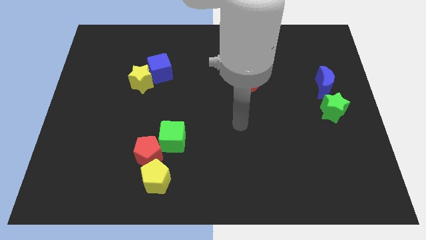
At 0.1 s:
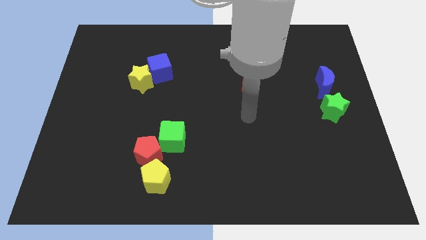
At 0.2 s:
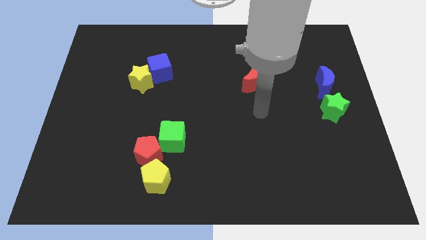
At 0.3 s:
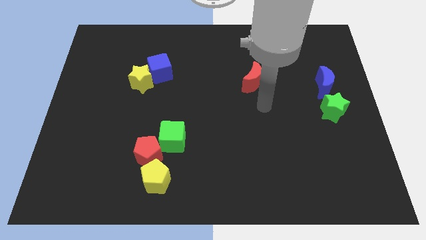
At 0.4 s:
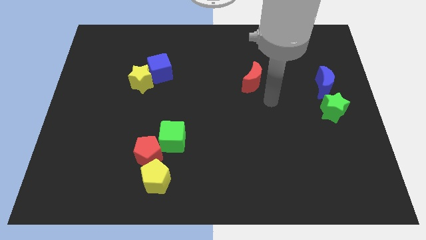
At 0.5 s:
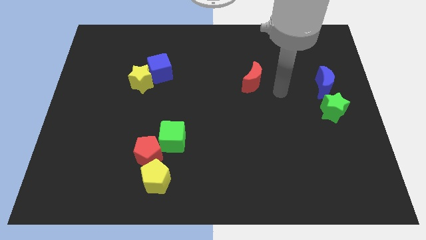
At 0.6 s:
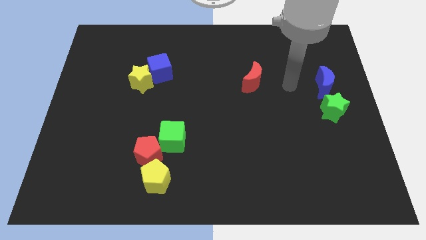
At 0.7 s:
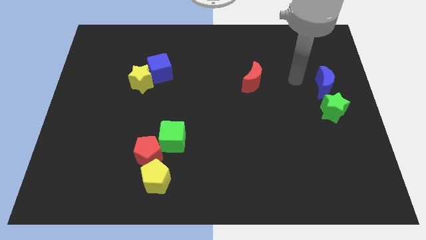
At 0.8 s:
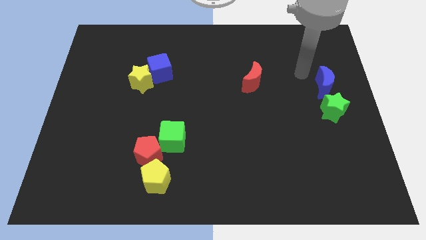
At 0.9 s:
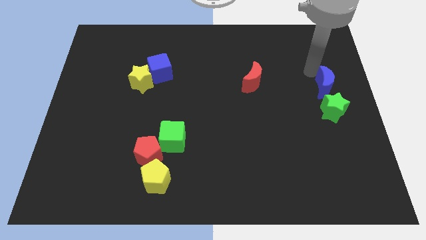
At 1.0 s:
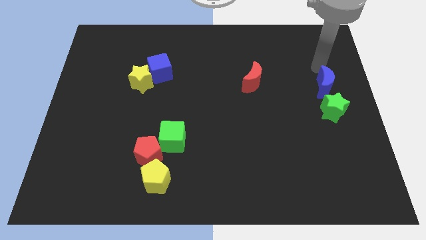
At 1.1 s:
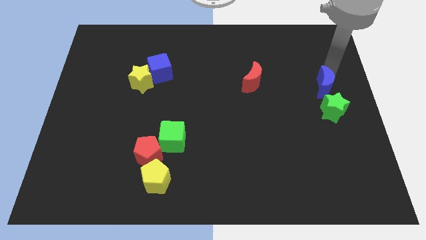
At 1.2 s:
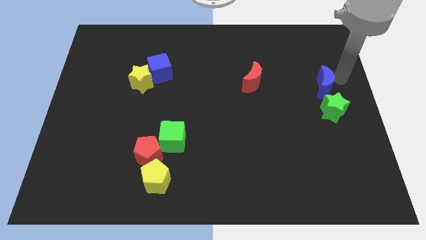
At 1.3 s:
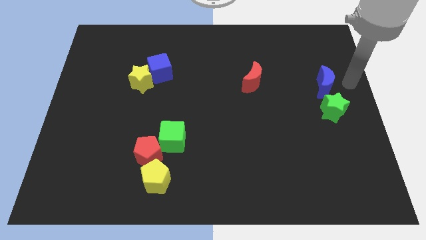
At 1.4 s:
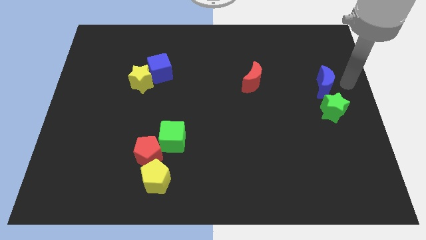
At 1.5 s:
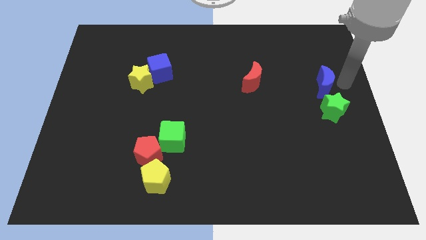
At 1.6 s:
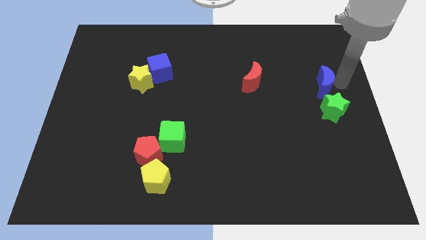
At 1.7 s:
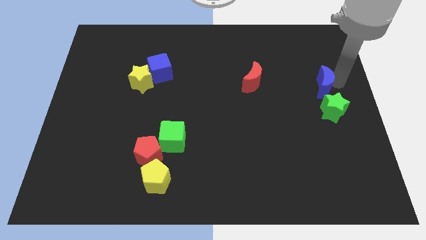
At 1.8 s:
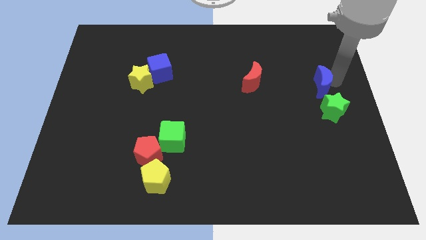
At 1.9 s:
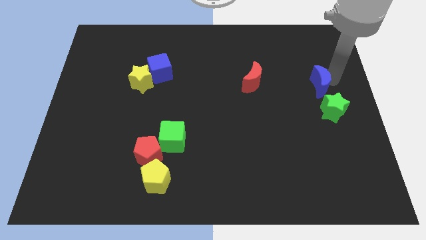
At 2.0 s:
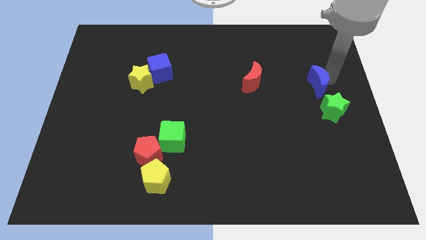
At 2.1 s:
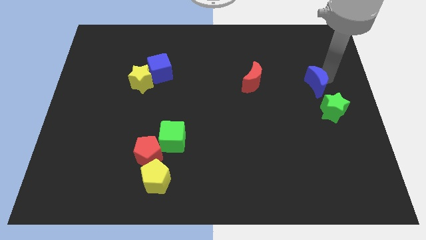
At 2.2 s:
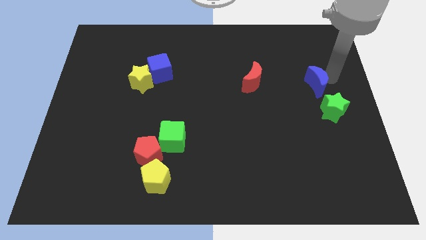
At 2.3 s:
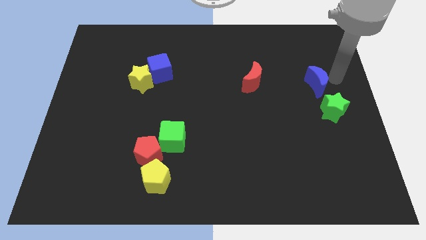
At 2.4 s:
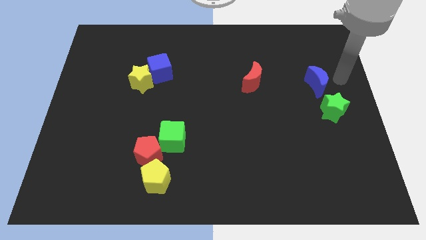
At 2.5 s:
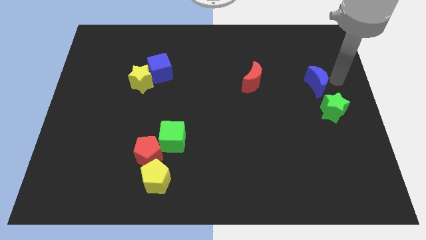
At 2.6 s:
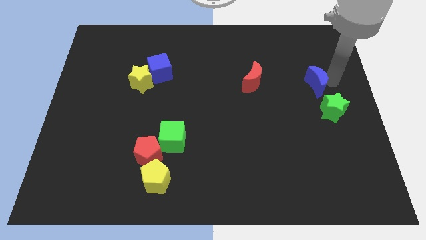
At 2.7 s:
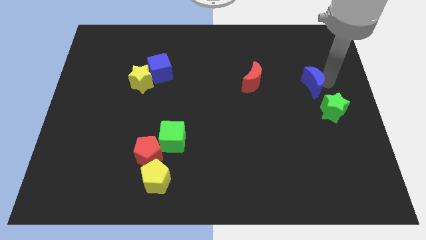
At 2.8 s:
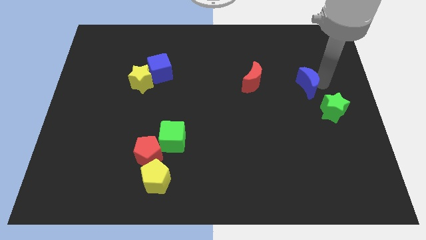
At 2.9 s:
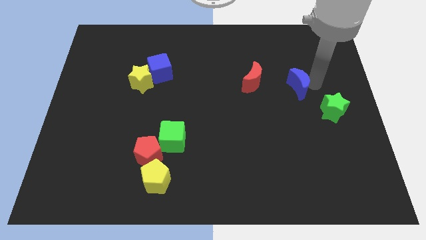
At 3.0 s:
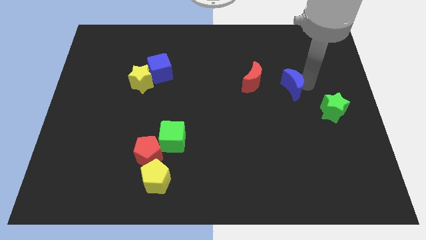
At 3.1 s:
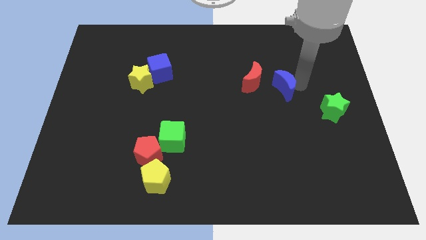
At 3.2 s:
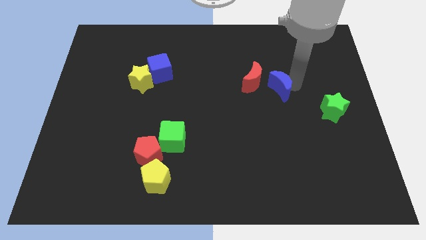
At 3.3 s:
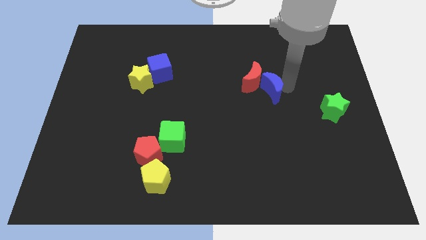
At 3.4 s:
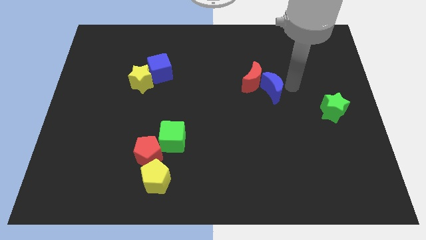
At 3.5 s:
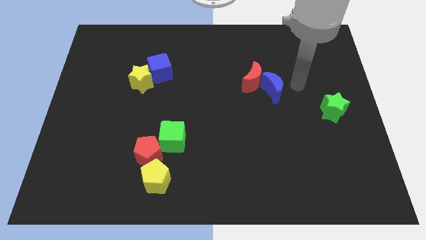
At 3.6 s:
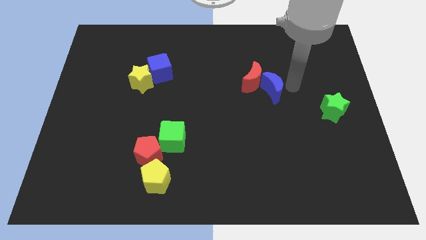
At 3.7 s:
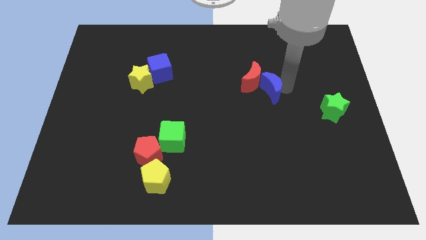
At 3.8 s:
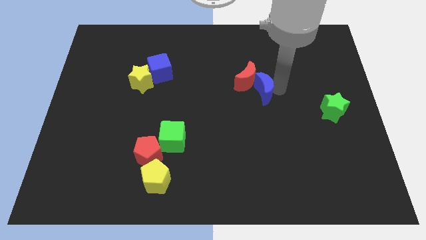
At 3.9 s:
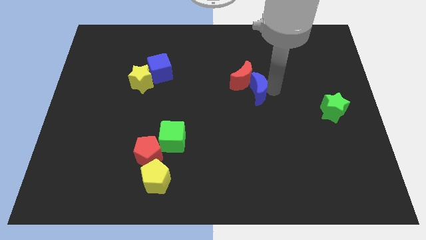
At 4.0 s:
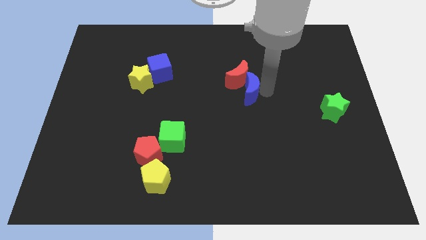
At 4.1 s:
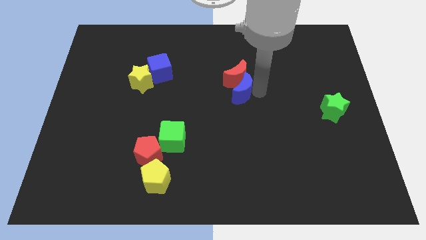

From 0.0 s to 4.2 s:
push the blue moon left

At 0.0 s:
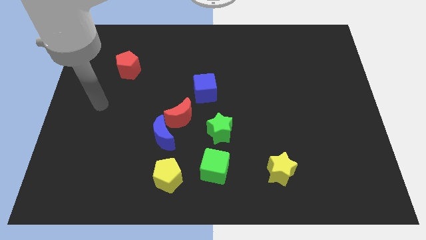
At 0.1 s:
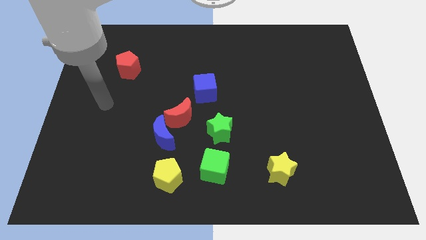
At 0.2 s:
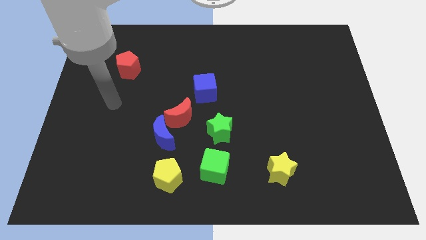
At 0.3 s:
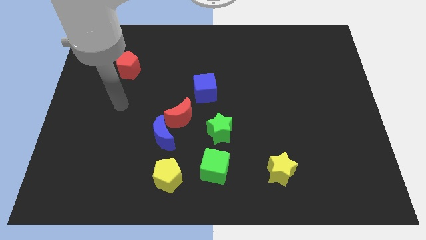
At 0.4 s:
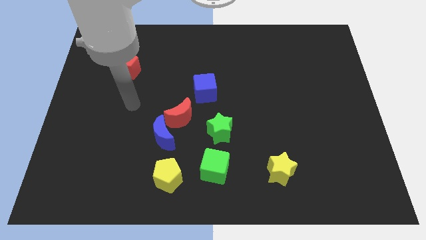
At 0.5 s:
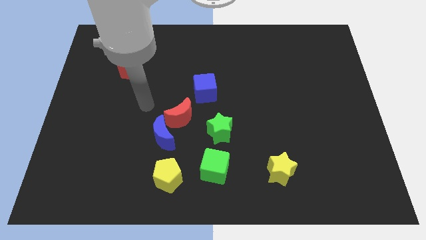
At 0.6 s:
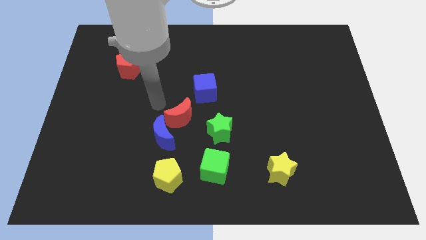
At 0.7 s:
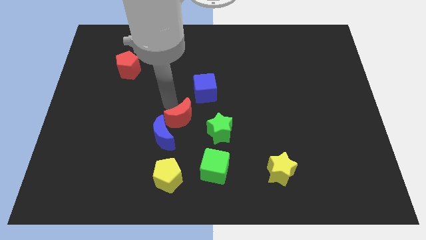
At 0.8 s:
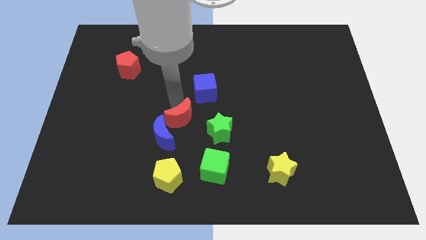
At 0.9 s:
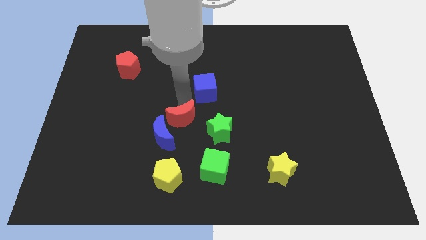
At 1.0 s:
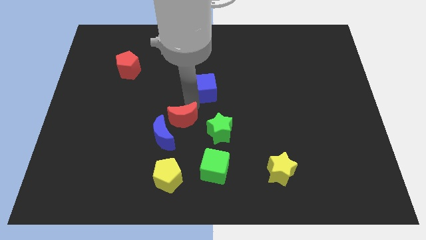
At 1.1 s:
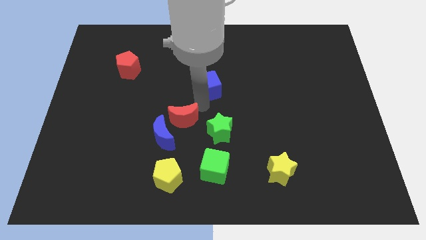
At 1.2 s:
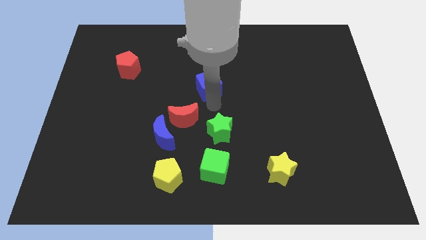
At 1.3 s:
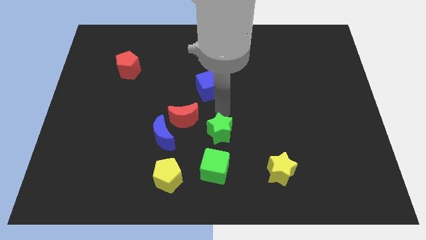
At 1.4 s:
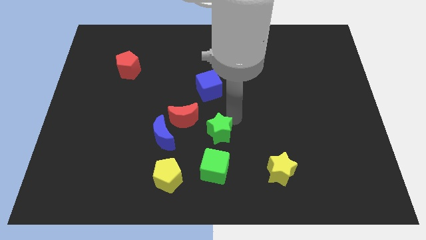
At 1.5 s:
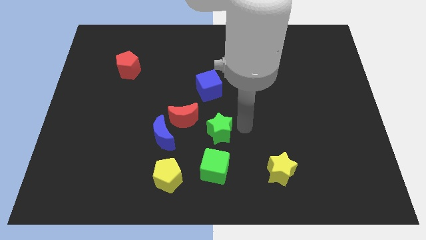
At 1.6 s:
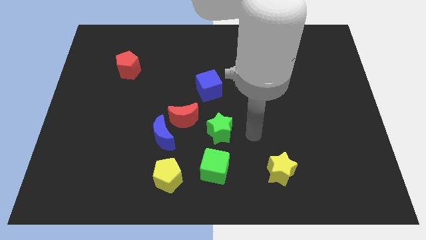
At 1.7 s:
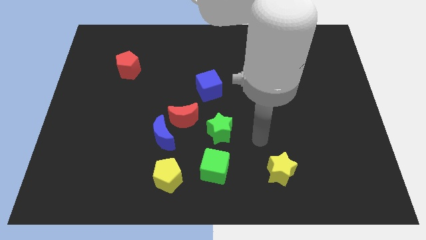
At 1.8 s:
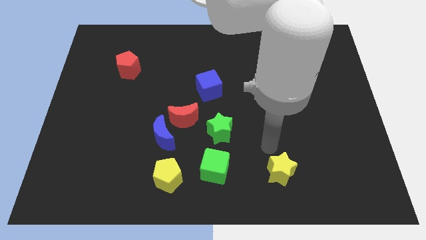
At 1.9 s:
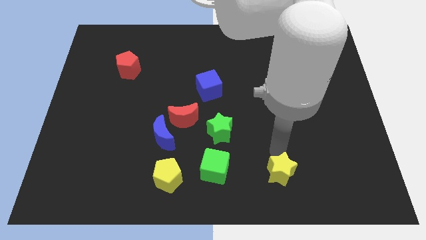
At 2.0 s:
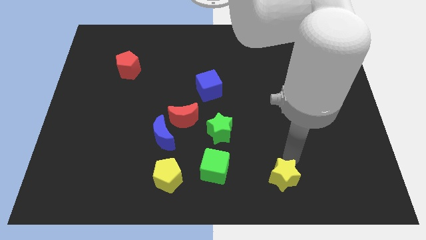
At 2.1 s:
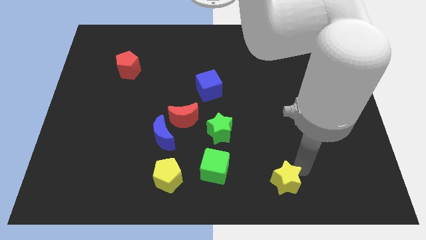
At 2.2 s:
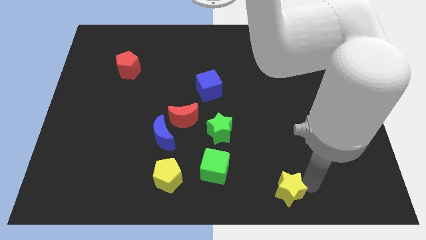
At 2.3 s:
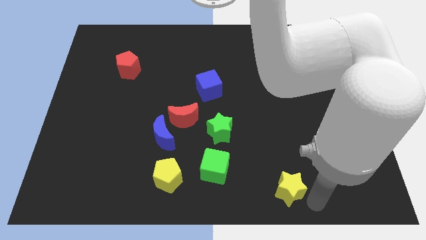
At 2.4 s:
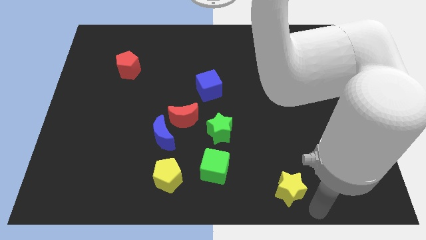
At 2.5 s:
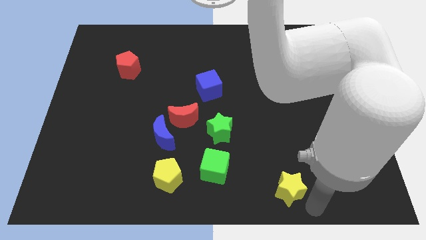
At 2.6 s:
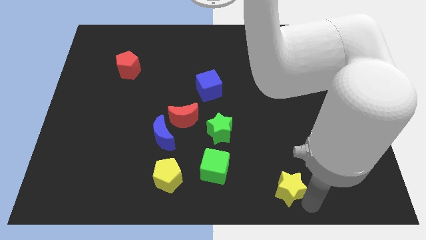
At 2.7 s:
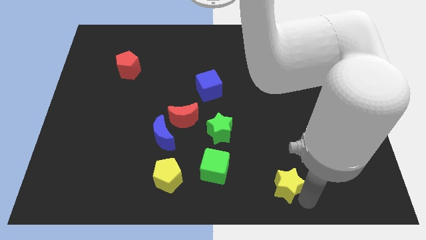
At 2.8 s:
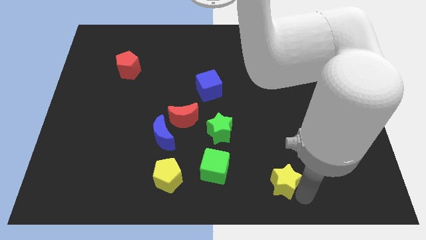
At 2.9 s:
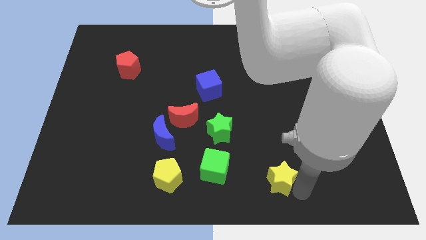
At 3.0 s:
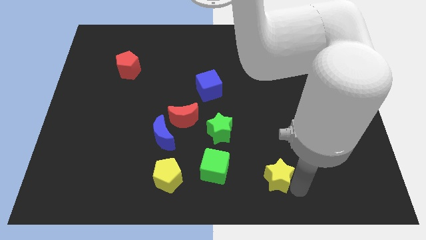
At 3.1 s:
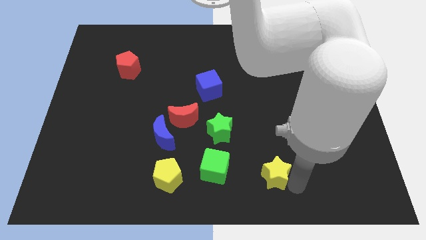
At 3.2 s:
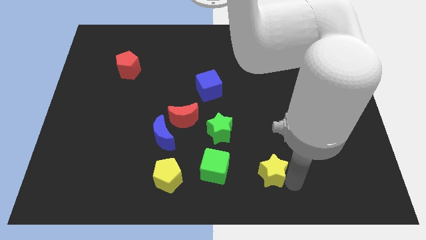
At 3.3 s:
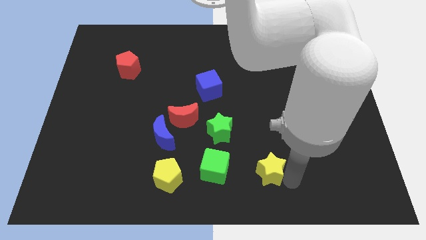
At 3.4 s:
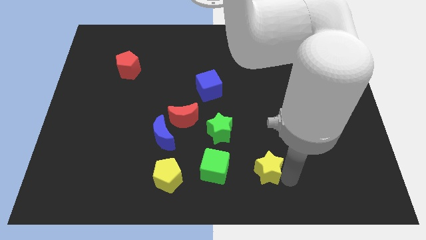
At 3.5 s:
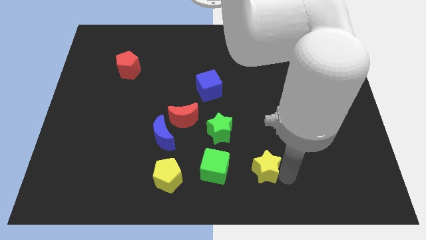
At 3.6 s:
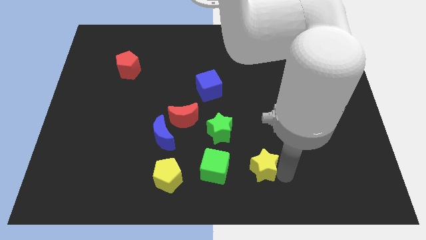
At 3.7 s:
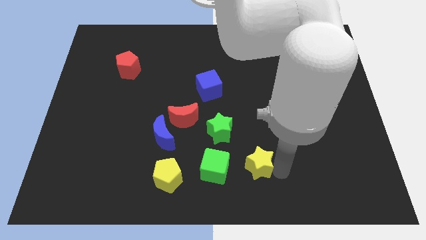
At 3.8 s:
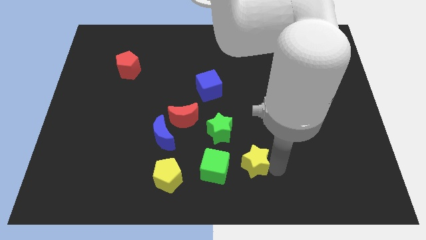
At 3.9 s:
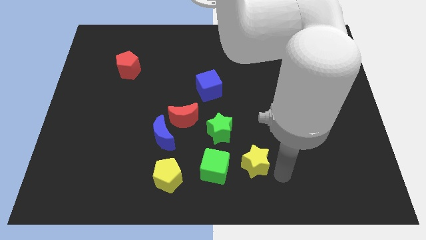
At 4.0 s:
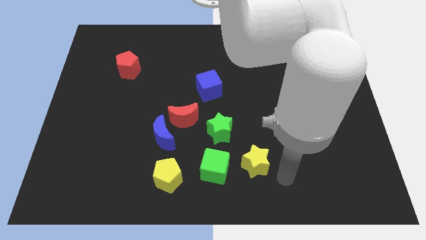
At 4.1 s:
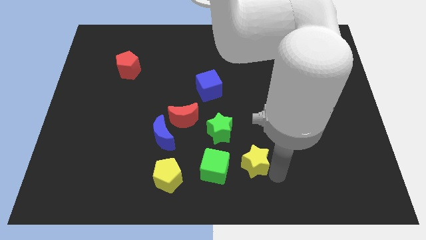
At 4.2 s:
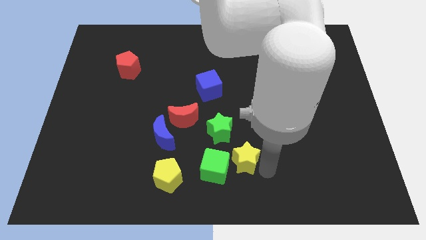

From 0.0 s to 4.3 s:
move the yellow star a little bit left
